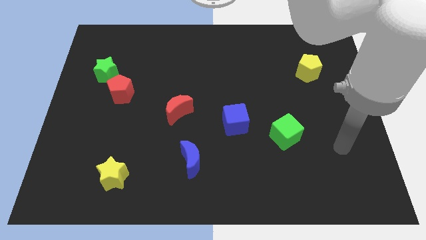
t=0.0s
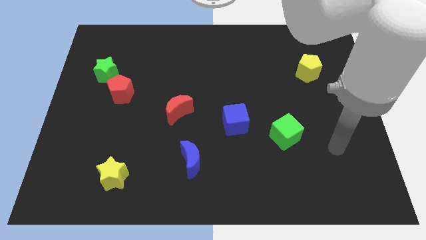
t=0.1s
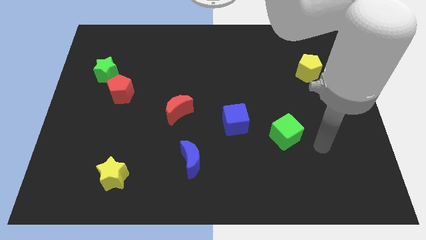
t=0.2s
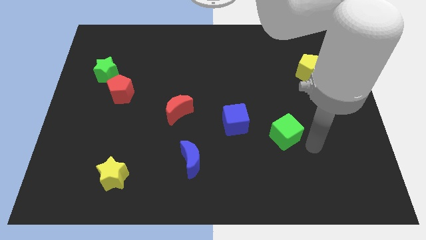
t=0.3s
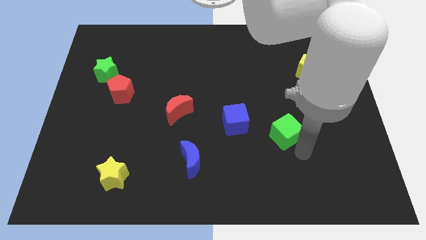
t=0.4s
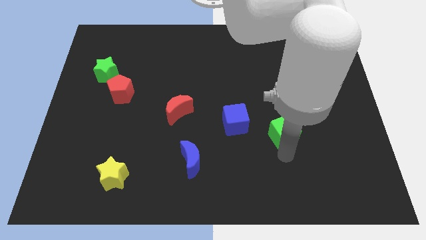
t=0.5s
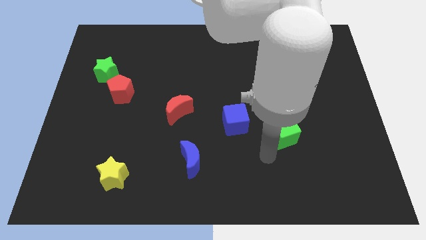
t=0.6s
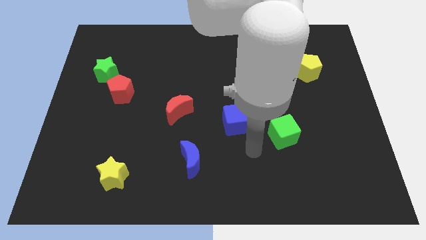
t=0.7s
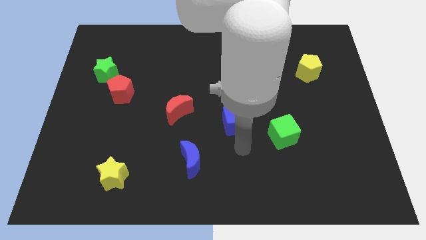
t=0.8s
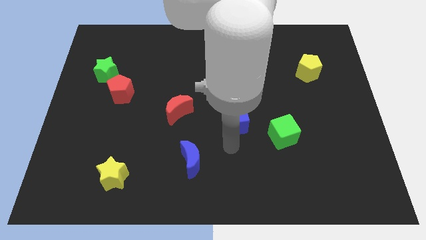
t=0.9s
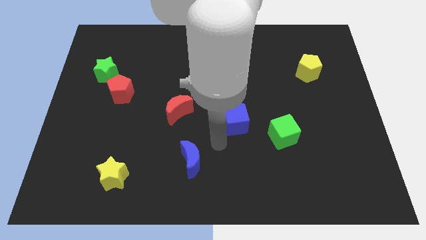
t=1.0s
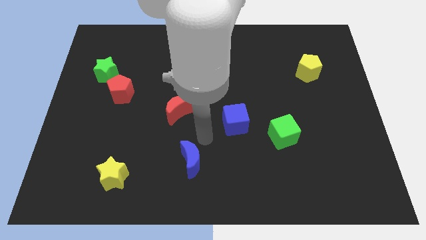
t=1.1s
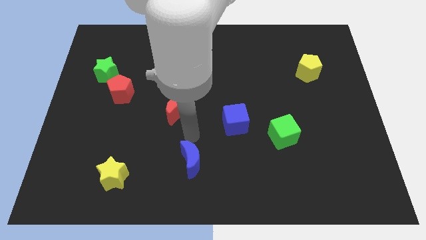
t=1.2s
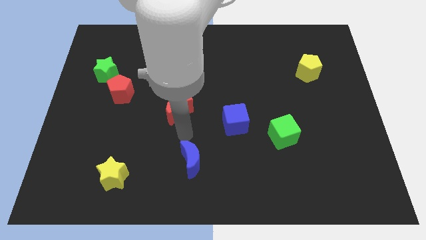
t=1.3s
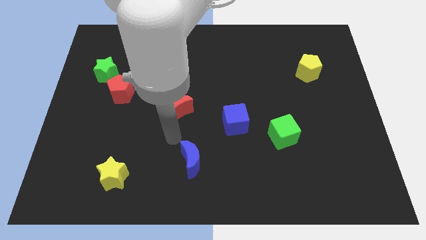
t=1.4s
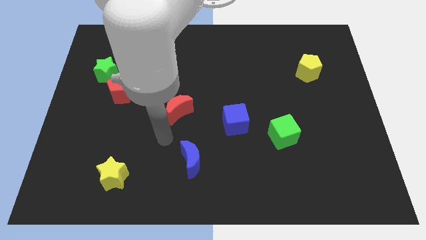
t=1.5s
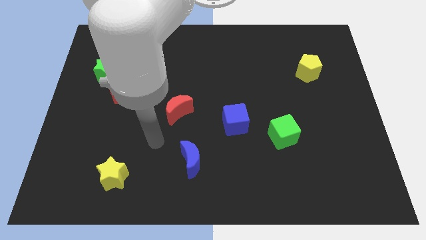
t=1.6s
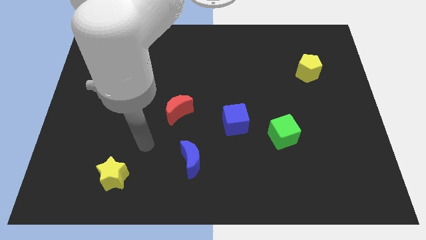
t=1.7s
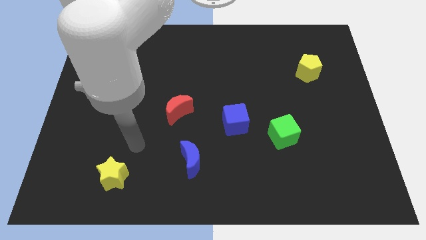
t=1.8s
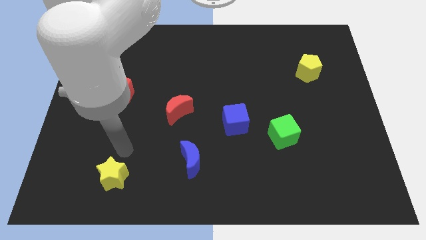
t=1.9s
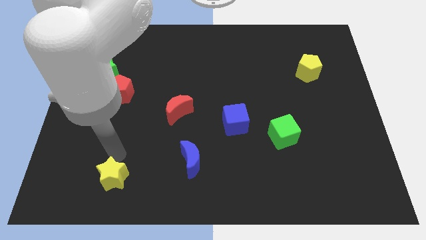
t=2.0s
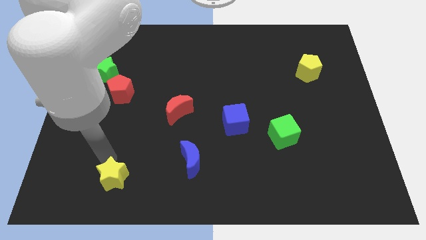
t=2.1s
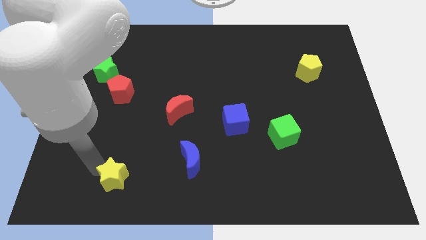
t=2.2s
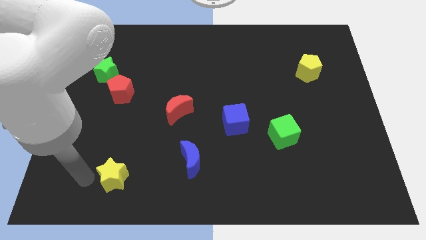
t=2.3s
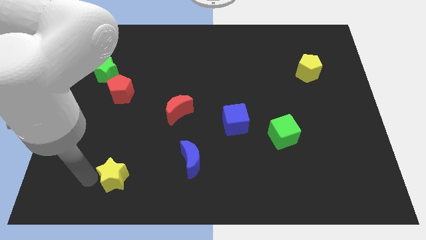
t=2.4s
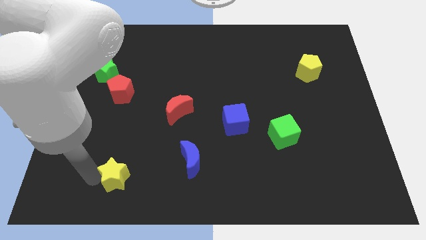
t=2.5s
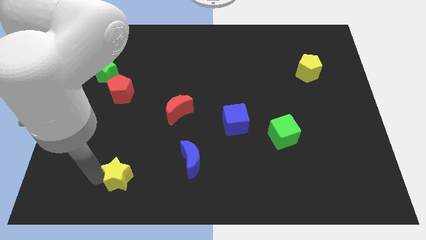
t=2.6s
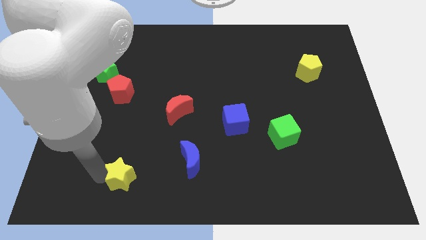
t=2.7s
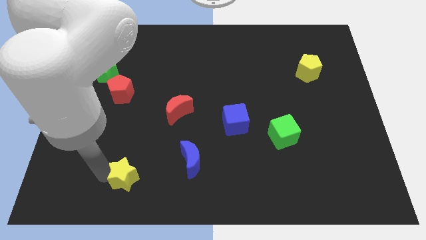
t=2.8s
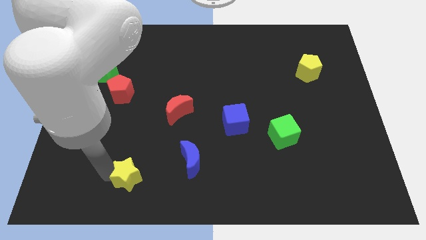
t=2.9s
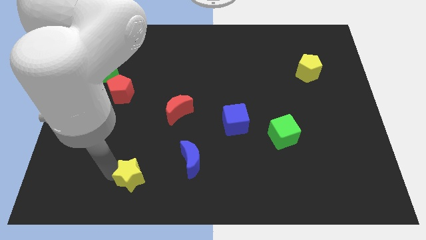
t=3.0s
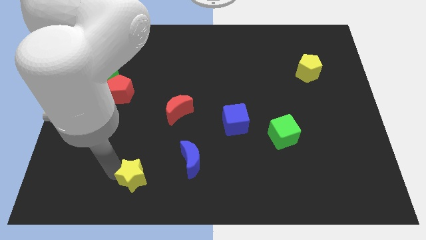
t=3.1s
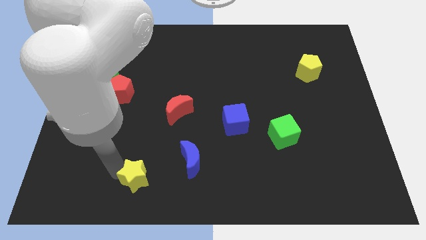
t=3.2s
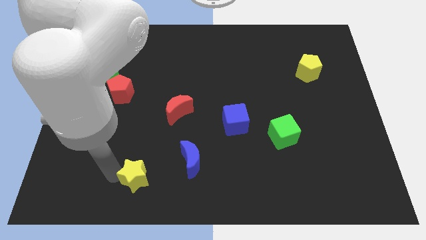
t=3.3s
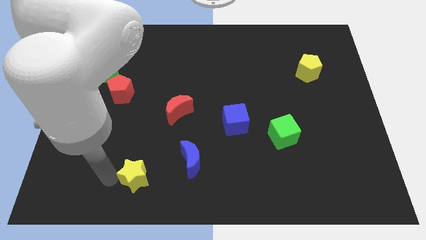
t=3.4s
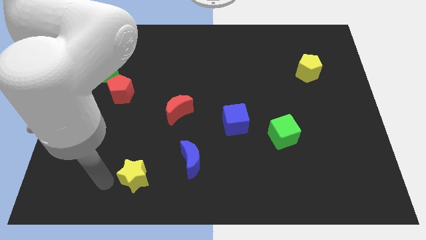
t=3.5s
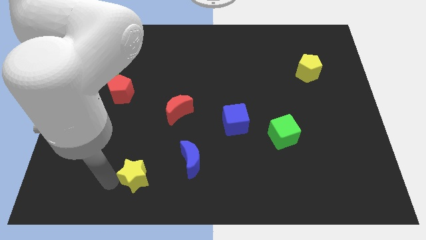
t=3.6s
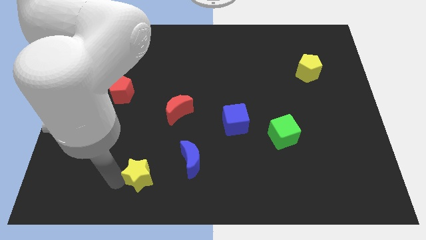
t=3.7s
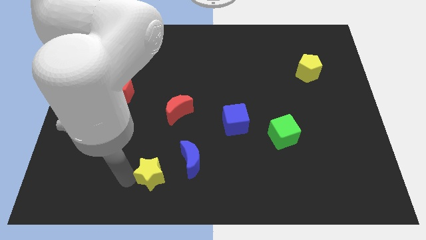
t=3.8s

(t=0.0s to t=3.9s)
slightly slide the yellow star right

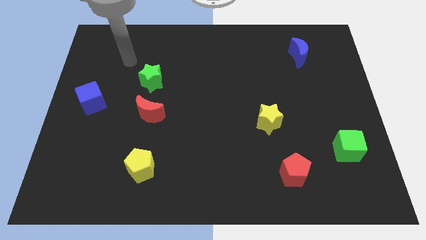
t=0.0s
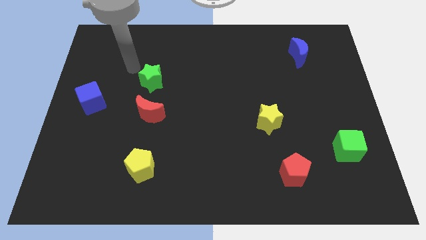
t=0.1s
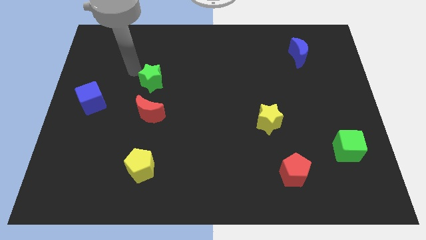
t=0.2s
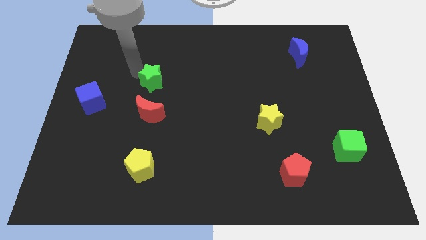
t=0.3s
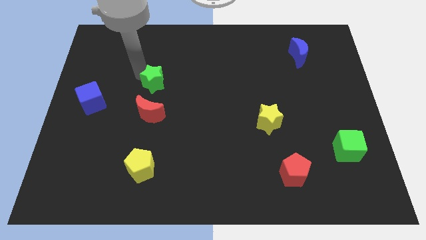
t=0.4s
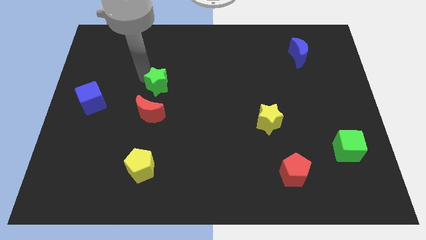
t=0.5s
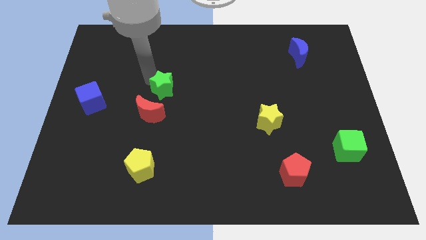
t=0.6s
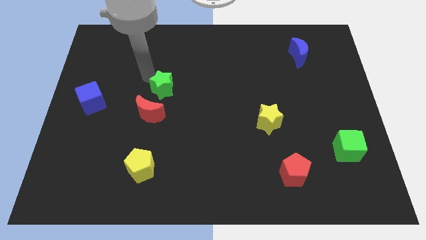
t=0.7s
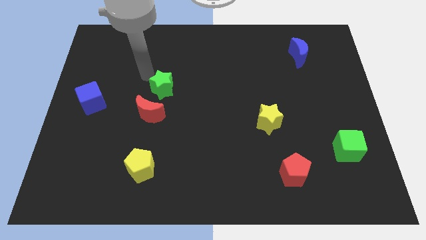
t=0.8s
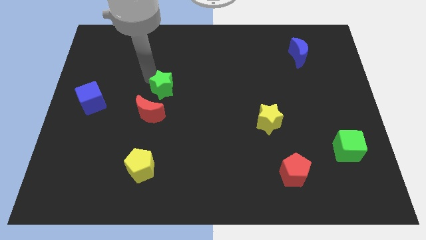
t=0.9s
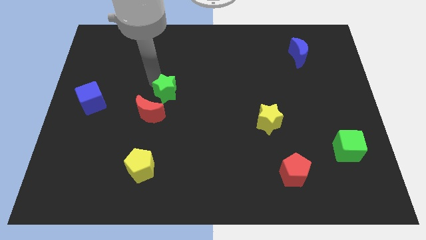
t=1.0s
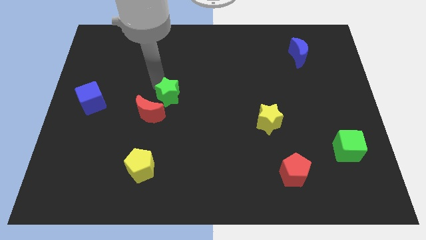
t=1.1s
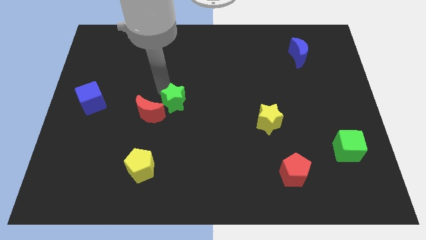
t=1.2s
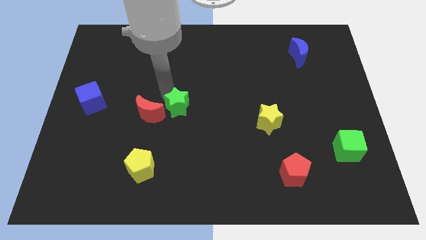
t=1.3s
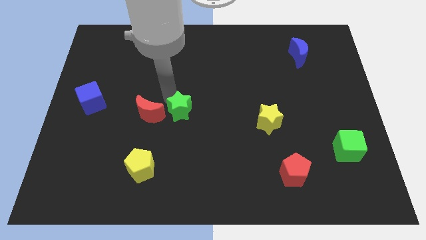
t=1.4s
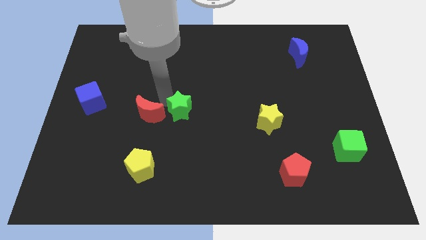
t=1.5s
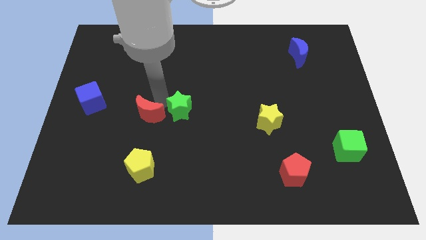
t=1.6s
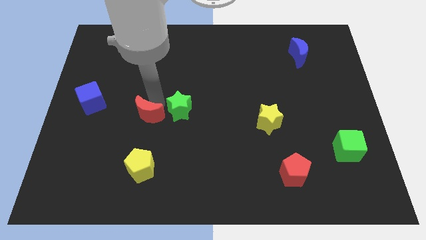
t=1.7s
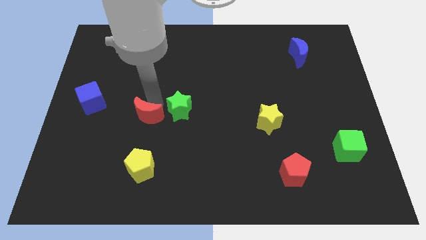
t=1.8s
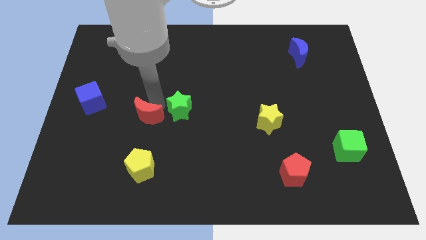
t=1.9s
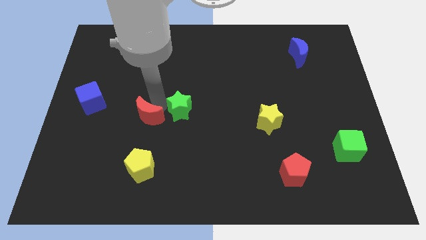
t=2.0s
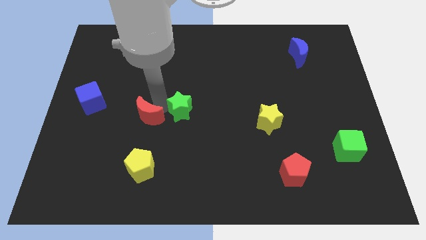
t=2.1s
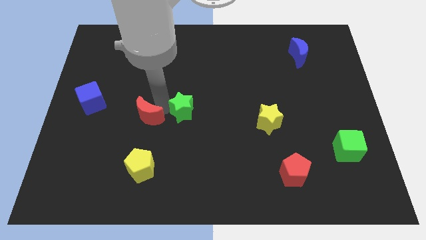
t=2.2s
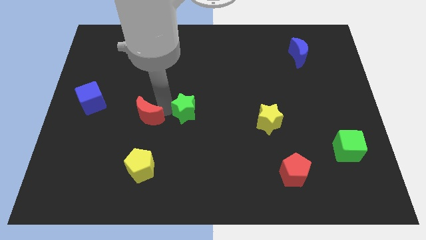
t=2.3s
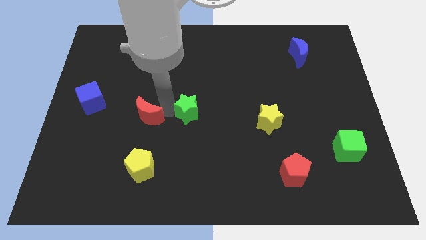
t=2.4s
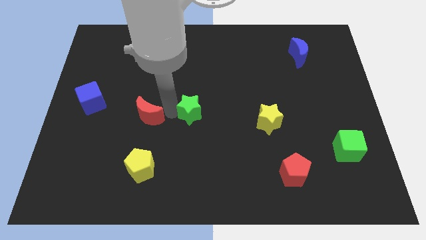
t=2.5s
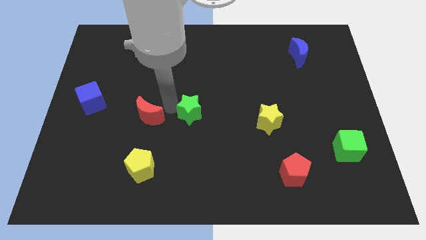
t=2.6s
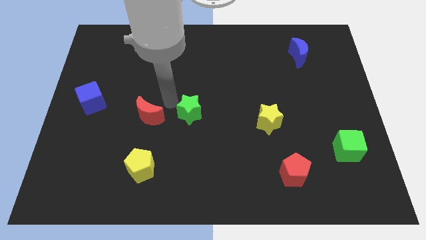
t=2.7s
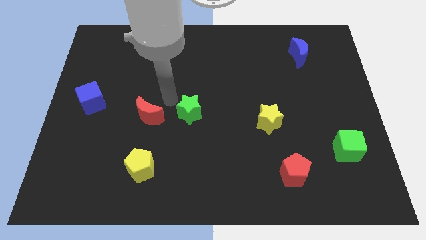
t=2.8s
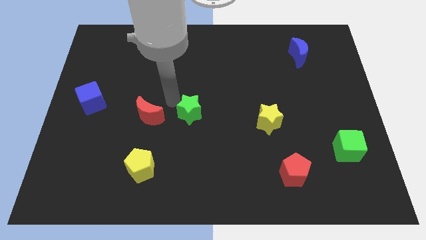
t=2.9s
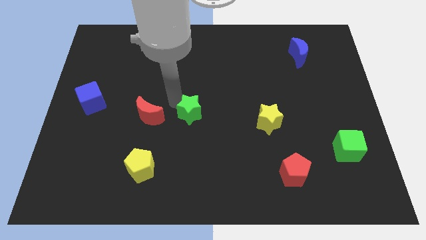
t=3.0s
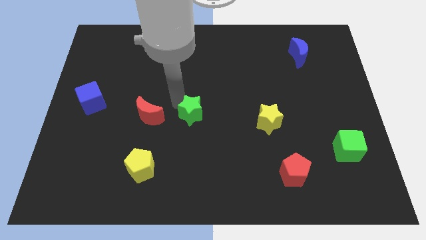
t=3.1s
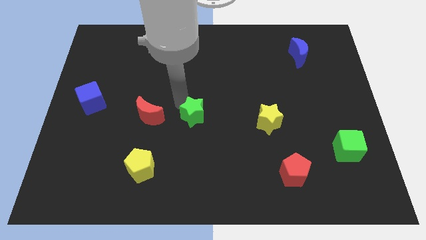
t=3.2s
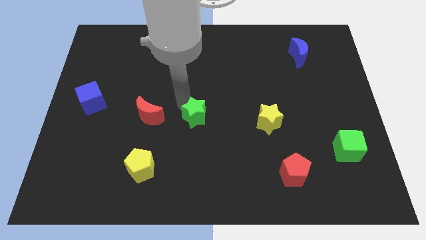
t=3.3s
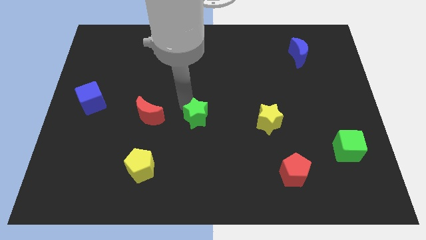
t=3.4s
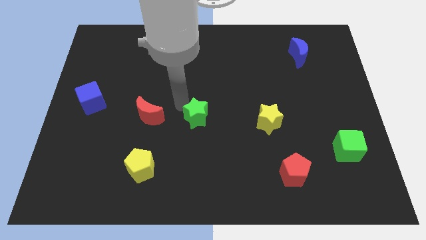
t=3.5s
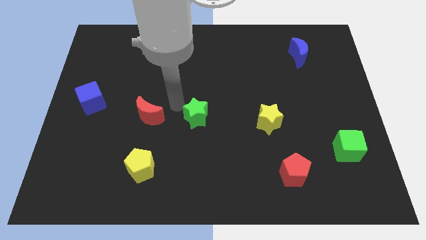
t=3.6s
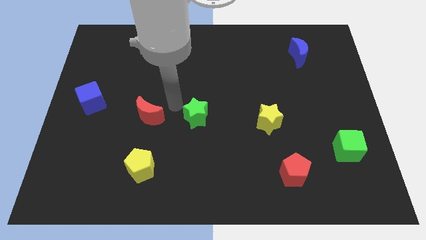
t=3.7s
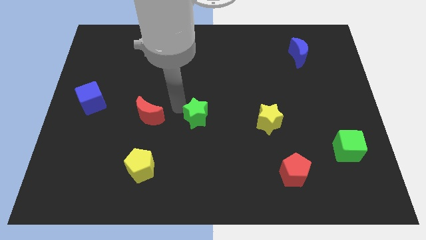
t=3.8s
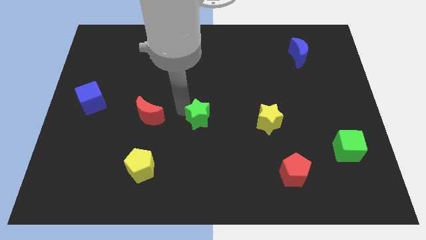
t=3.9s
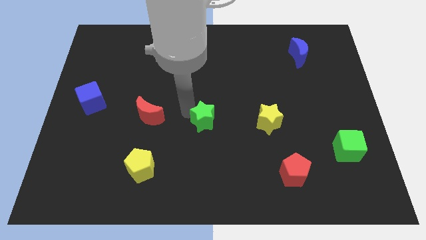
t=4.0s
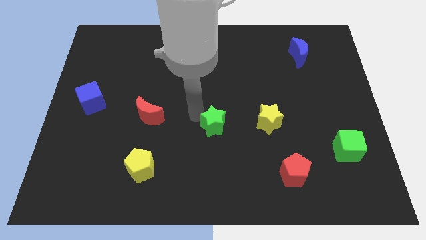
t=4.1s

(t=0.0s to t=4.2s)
push the green star diagonally down and right
